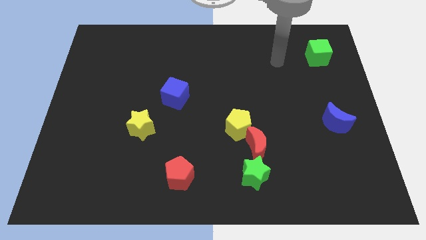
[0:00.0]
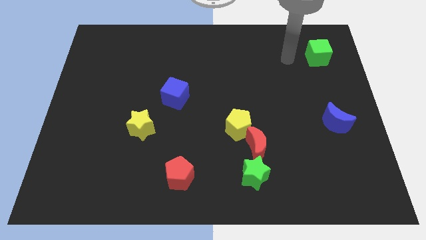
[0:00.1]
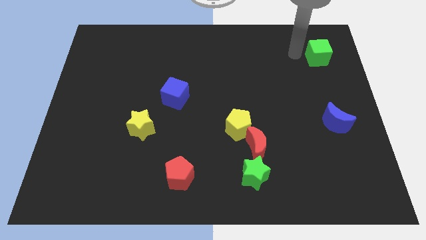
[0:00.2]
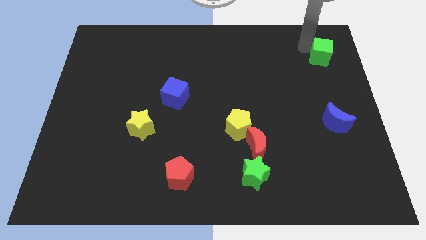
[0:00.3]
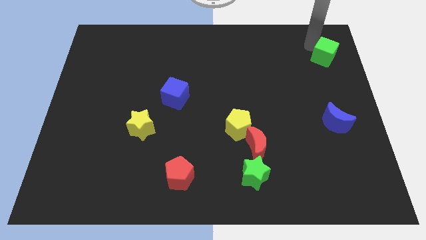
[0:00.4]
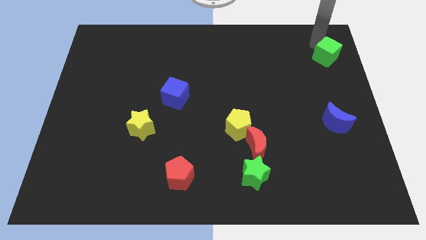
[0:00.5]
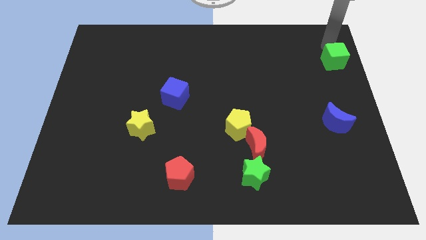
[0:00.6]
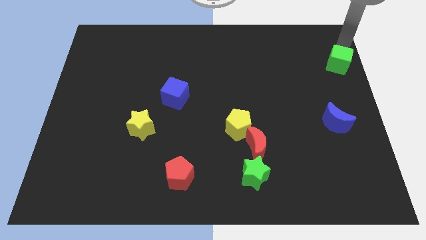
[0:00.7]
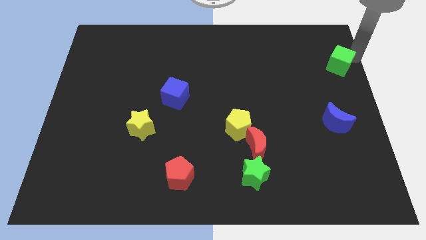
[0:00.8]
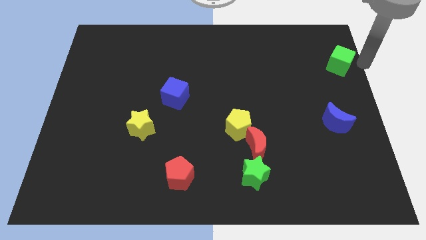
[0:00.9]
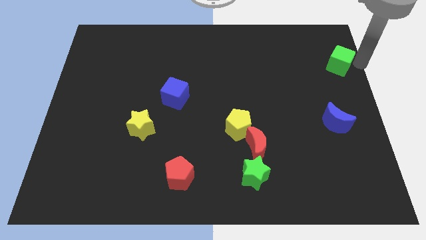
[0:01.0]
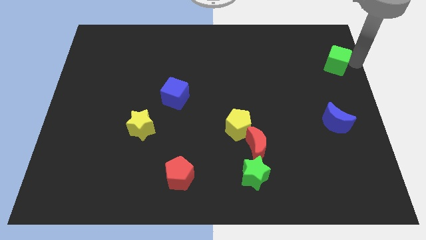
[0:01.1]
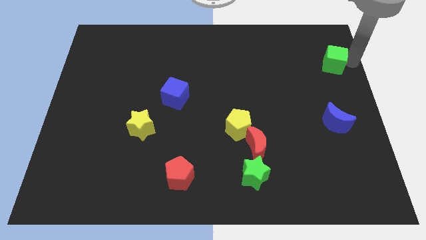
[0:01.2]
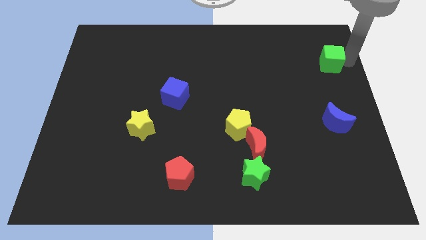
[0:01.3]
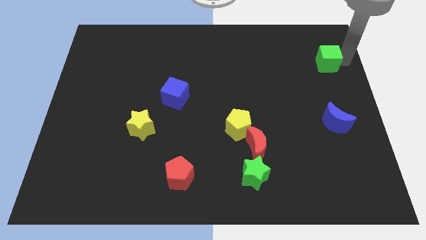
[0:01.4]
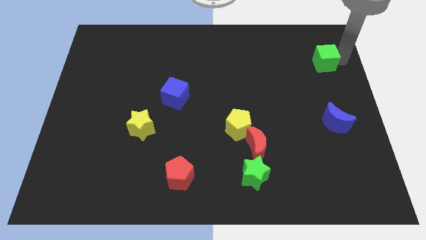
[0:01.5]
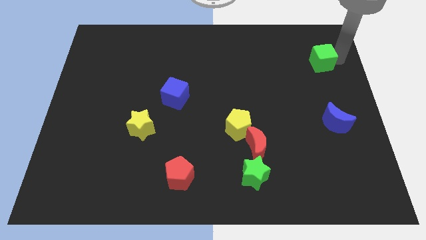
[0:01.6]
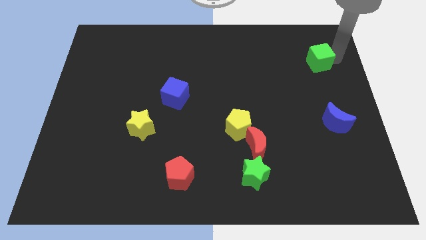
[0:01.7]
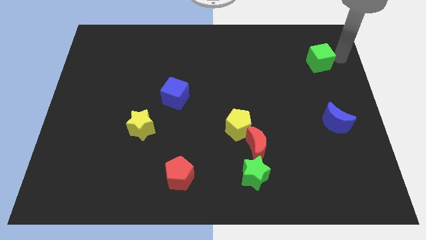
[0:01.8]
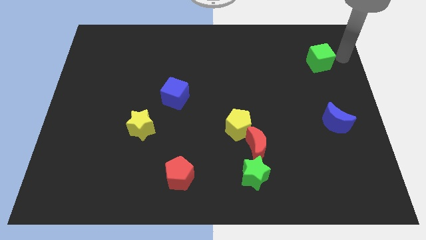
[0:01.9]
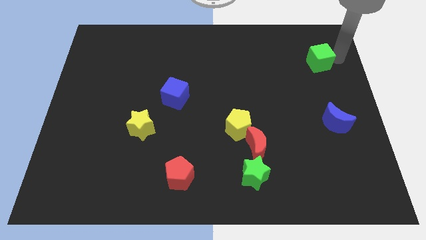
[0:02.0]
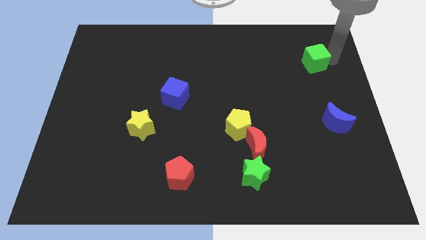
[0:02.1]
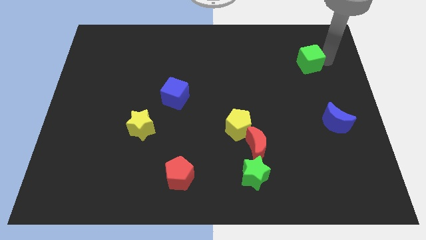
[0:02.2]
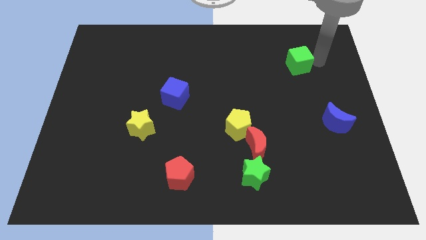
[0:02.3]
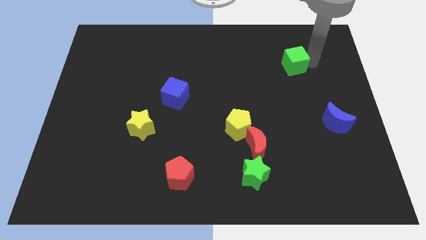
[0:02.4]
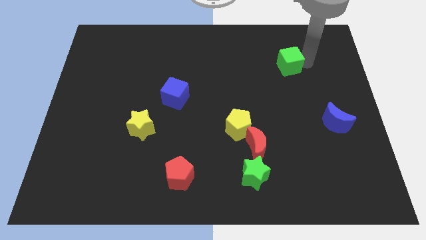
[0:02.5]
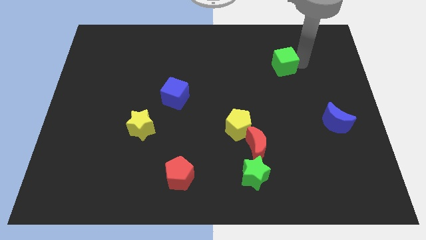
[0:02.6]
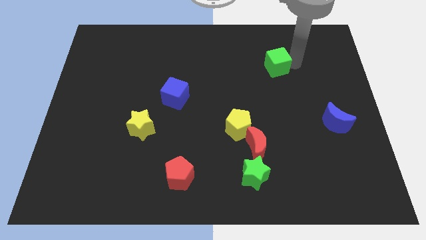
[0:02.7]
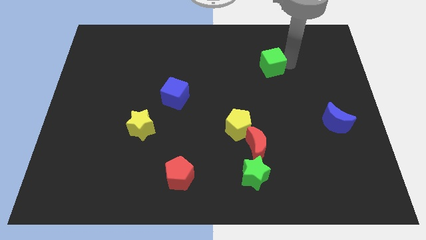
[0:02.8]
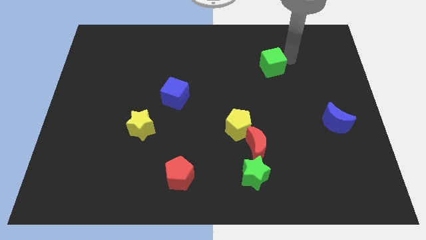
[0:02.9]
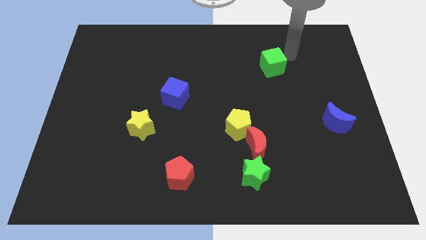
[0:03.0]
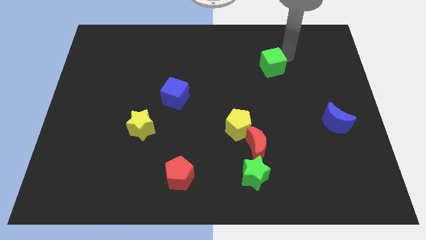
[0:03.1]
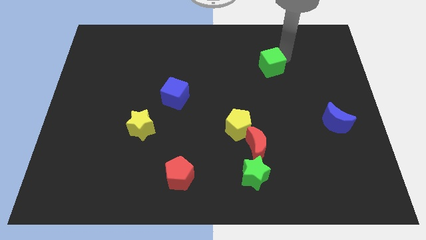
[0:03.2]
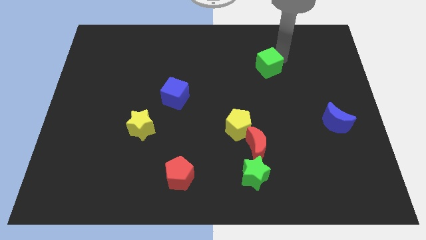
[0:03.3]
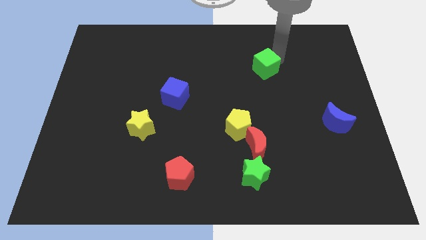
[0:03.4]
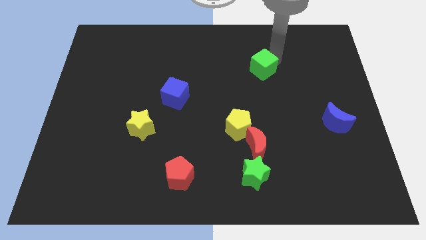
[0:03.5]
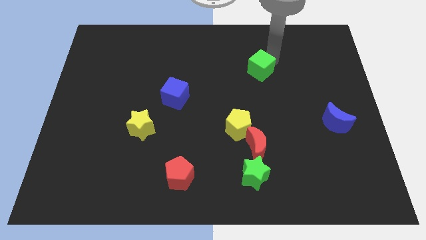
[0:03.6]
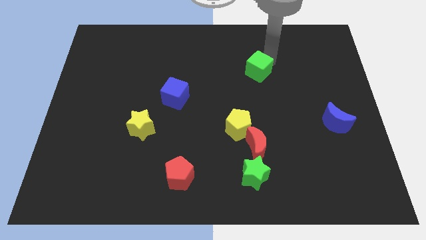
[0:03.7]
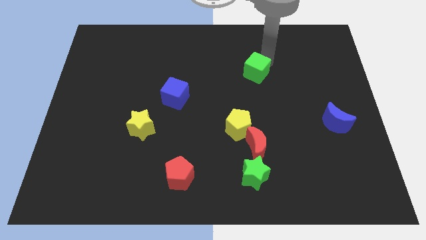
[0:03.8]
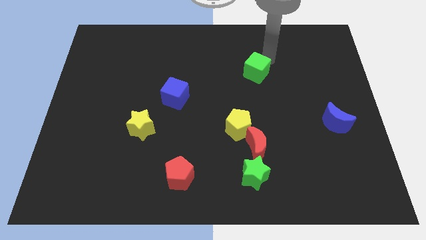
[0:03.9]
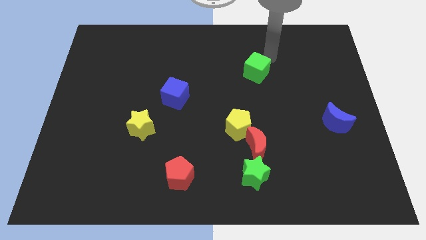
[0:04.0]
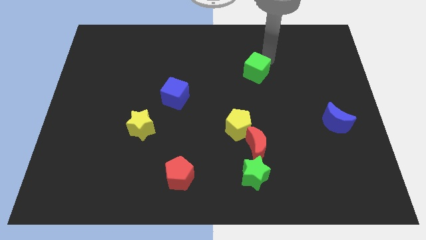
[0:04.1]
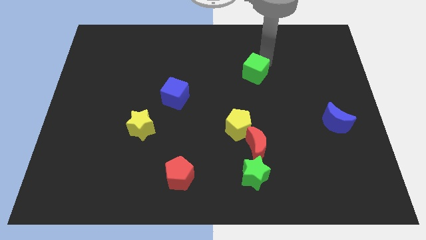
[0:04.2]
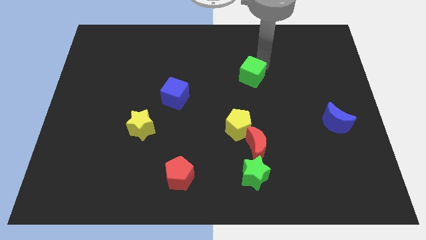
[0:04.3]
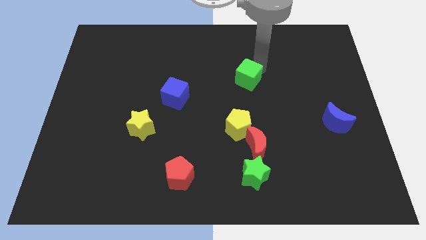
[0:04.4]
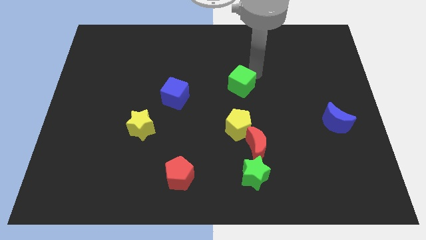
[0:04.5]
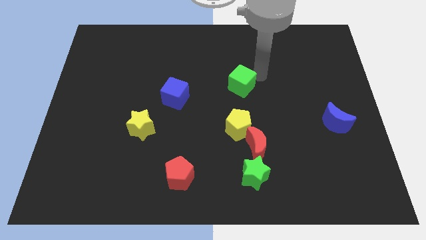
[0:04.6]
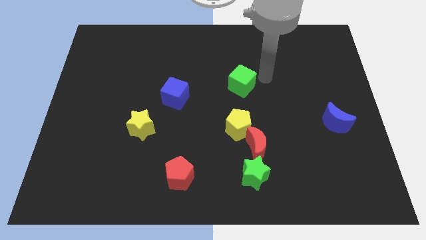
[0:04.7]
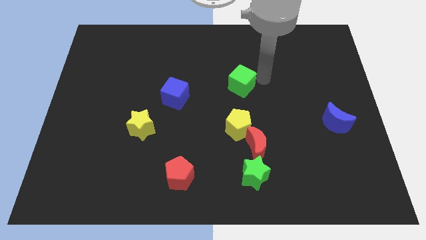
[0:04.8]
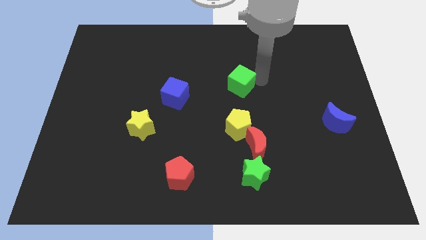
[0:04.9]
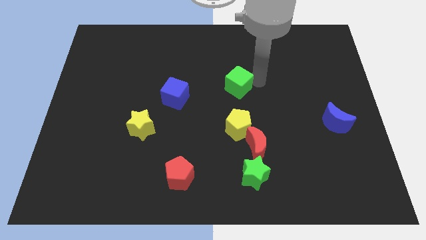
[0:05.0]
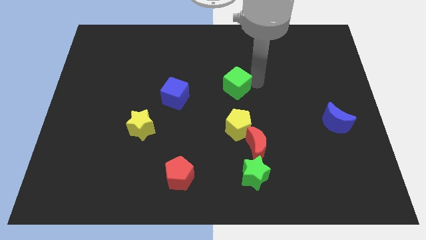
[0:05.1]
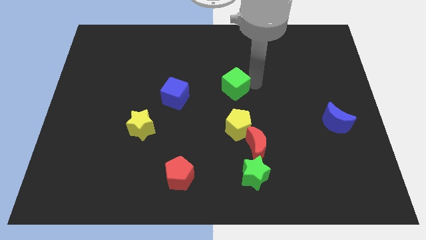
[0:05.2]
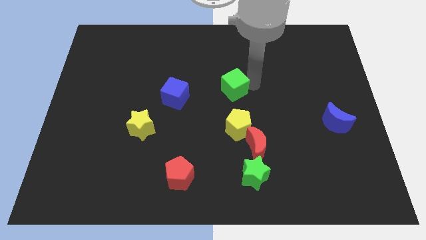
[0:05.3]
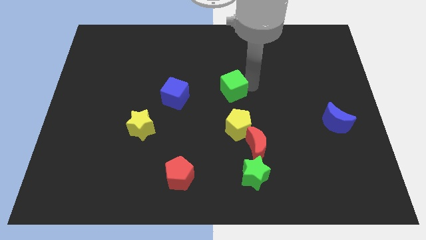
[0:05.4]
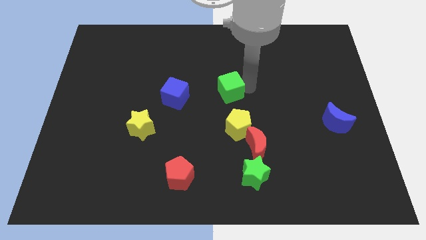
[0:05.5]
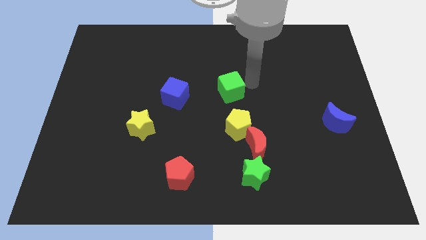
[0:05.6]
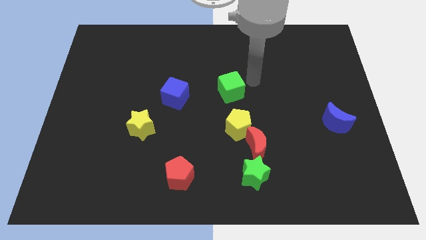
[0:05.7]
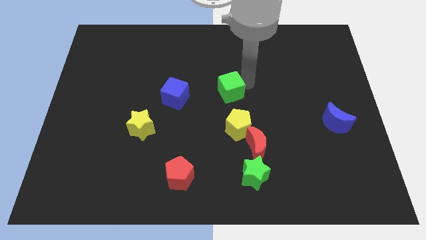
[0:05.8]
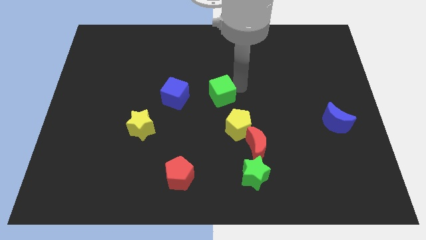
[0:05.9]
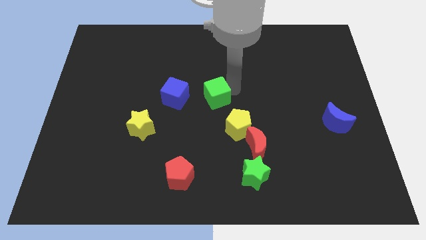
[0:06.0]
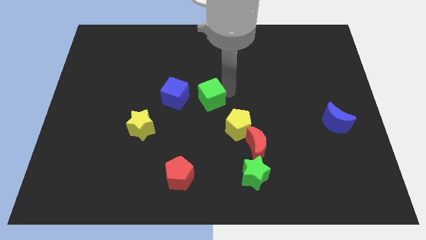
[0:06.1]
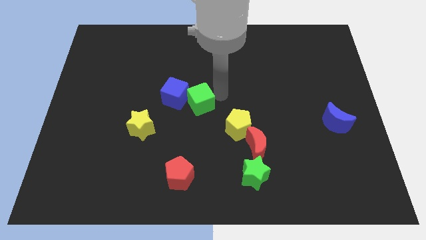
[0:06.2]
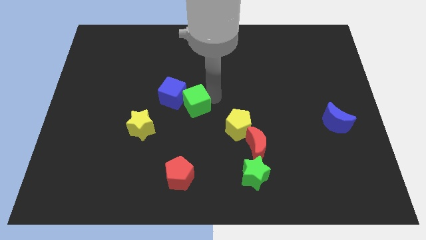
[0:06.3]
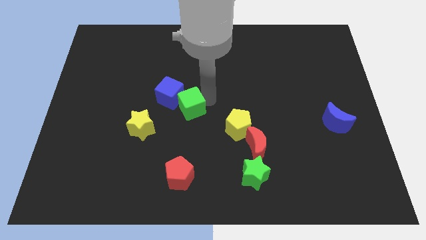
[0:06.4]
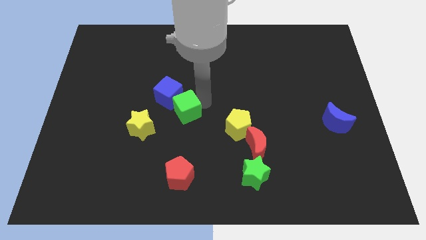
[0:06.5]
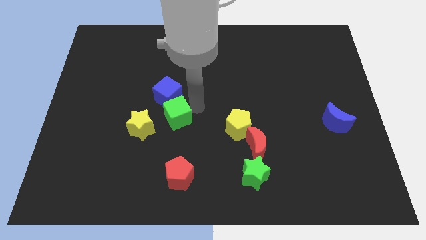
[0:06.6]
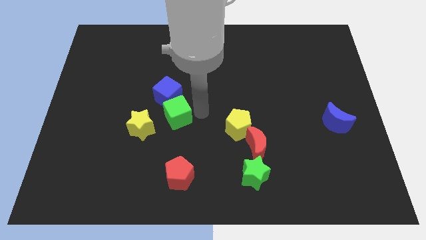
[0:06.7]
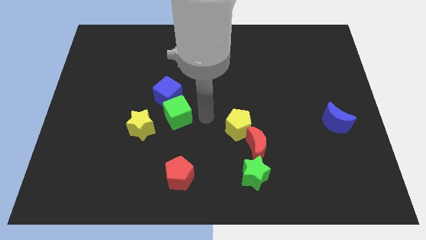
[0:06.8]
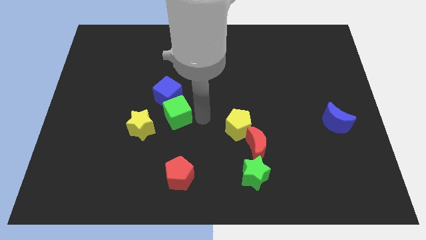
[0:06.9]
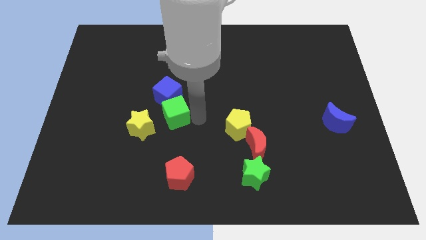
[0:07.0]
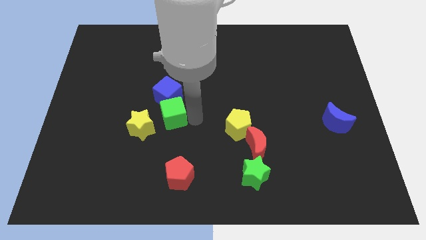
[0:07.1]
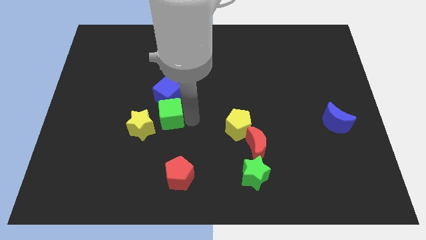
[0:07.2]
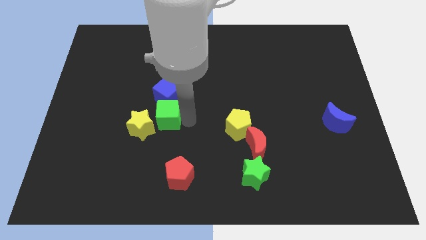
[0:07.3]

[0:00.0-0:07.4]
put the green cube to the bottom left side of the blue cube
